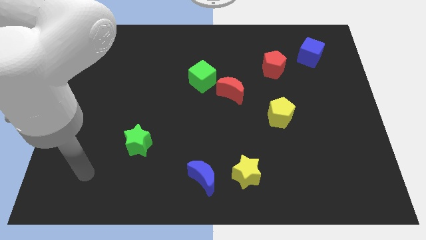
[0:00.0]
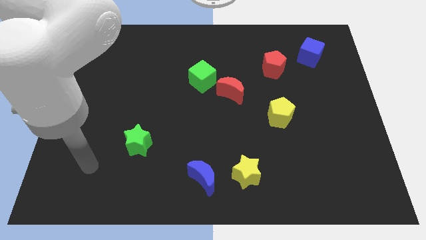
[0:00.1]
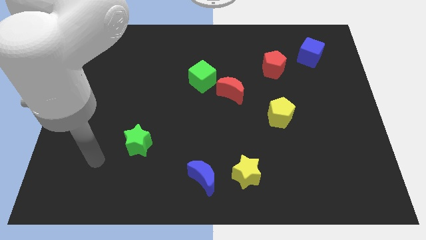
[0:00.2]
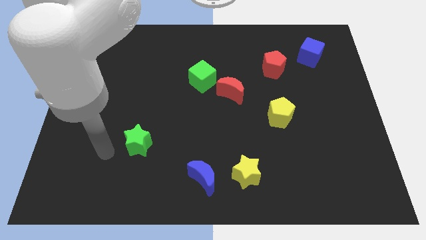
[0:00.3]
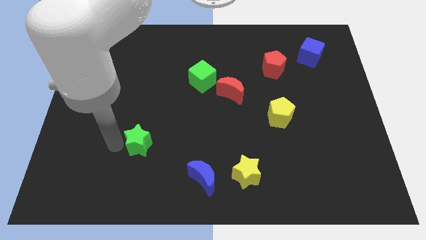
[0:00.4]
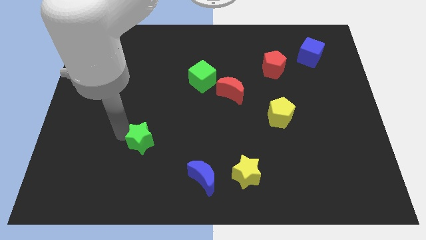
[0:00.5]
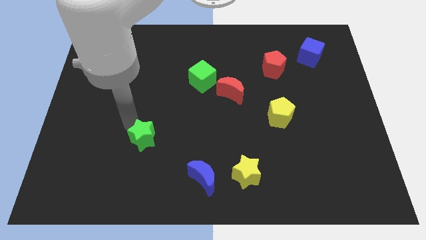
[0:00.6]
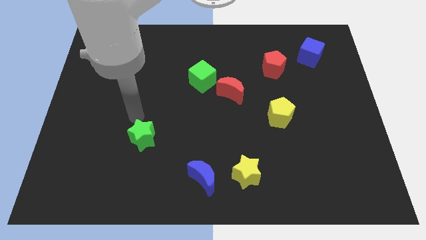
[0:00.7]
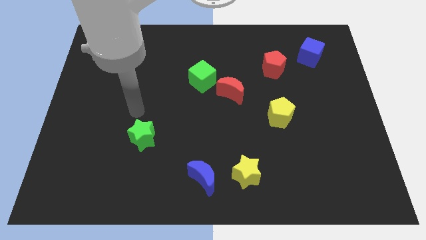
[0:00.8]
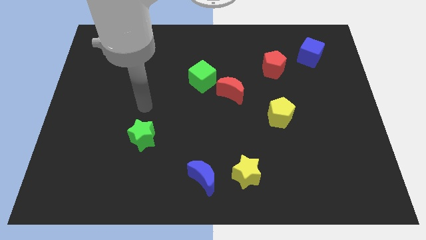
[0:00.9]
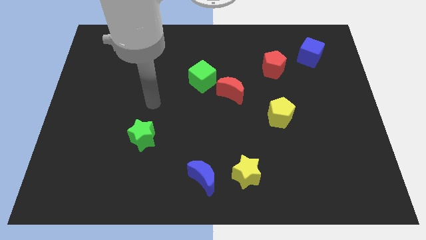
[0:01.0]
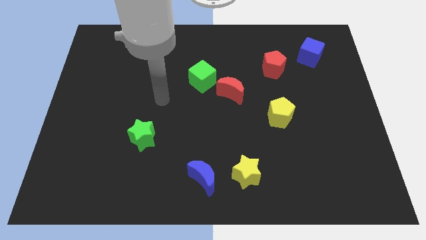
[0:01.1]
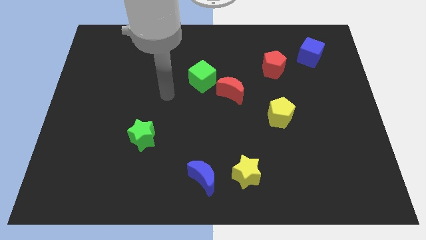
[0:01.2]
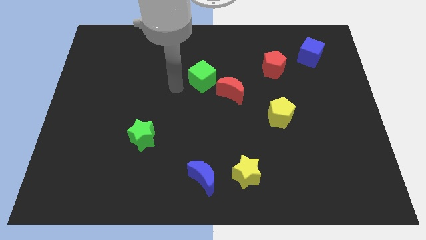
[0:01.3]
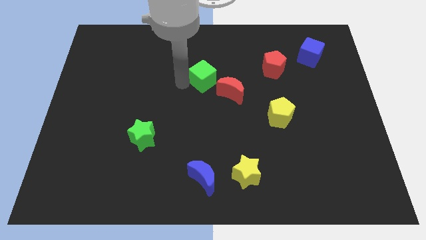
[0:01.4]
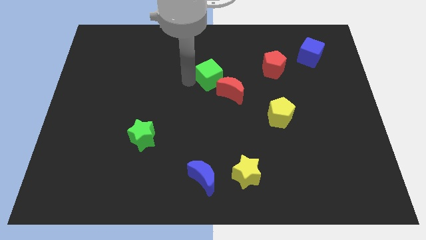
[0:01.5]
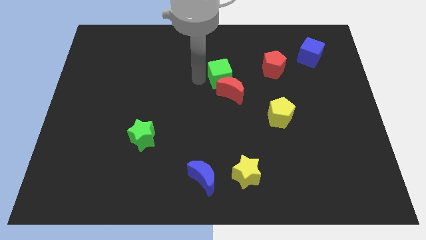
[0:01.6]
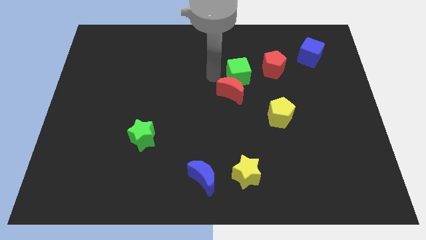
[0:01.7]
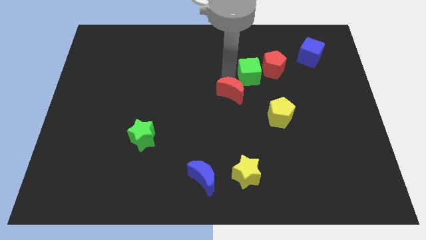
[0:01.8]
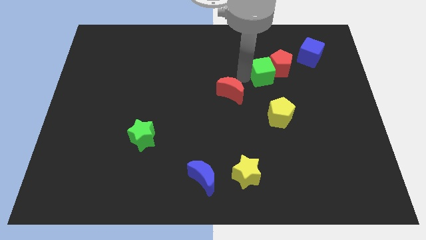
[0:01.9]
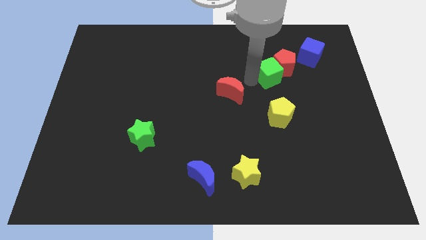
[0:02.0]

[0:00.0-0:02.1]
move the red moon away from the green cube

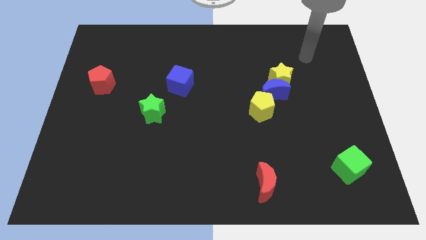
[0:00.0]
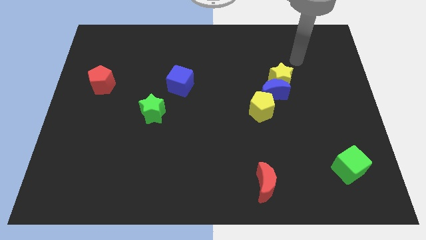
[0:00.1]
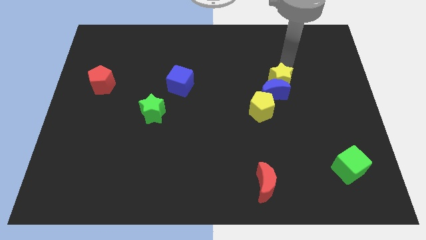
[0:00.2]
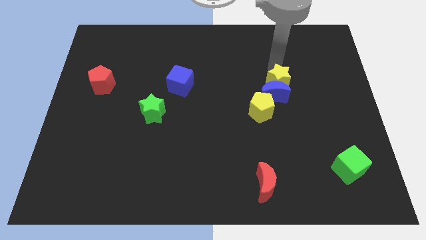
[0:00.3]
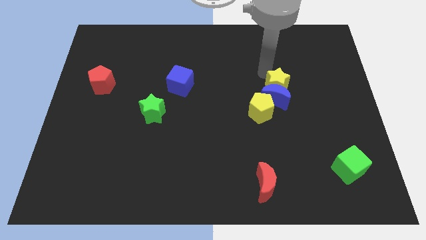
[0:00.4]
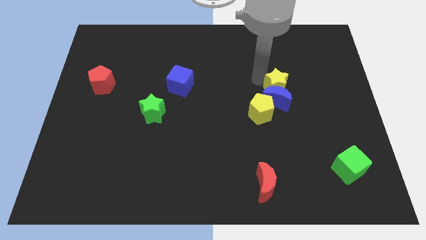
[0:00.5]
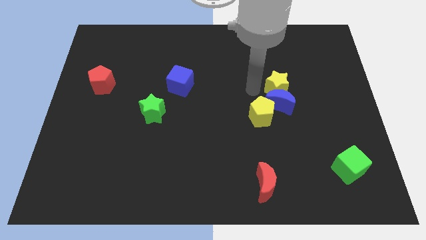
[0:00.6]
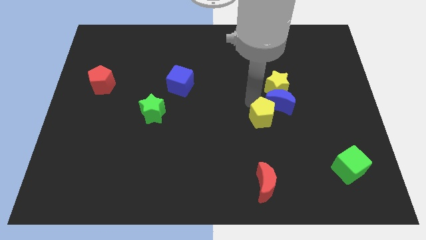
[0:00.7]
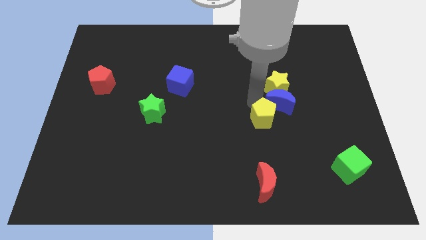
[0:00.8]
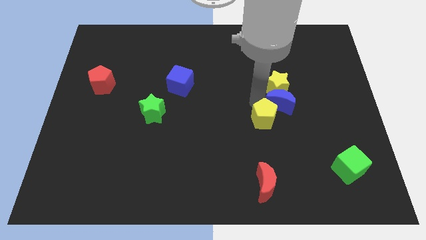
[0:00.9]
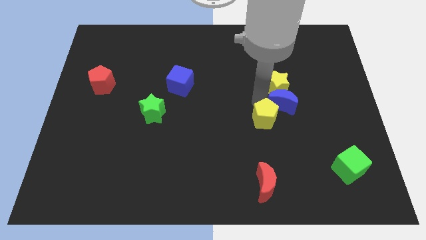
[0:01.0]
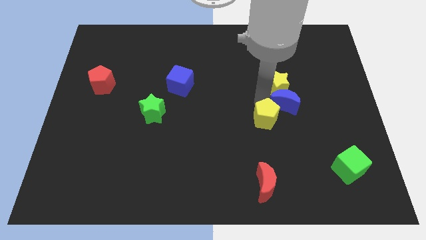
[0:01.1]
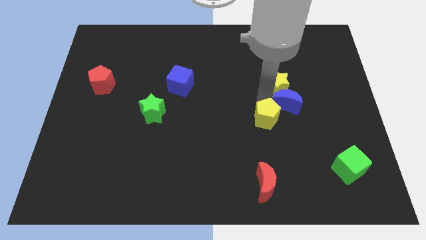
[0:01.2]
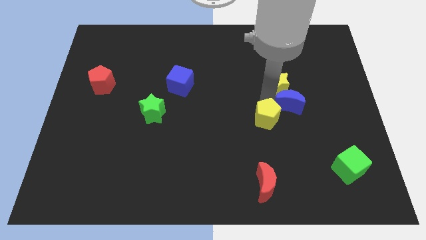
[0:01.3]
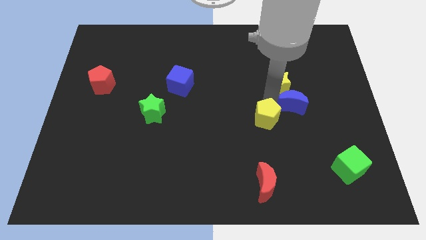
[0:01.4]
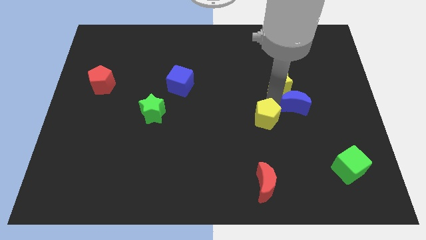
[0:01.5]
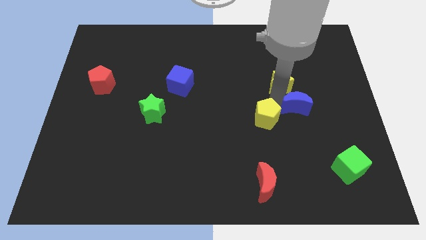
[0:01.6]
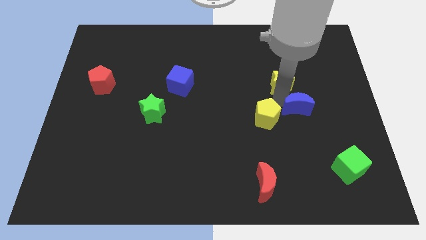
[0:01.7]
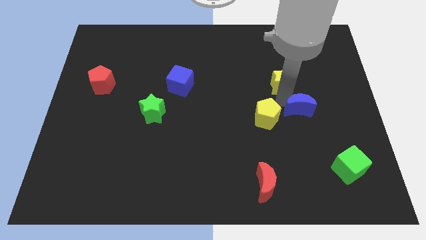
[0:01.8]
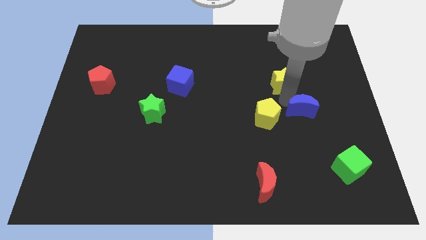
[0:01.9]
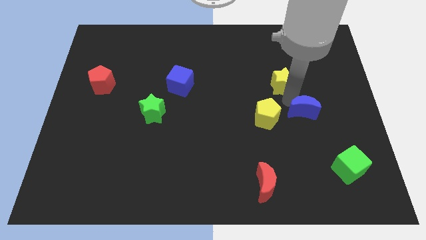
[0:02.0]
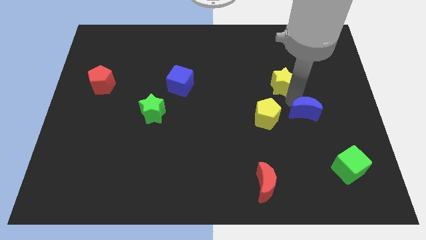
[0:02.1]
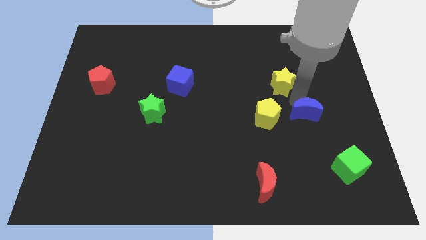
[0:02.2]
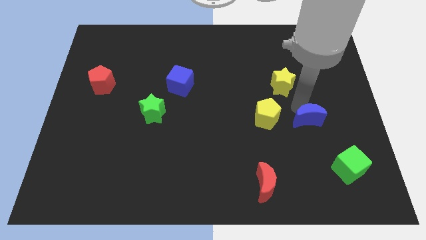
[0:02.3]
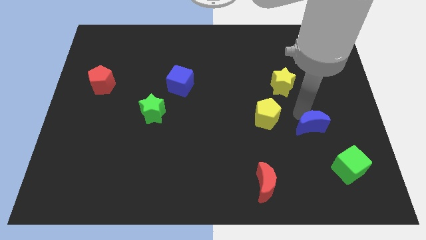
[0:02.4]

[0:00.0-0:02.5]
pull the blue moon apart from the yellow star and yellow pentagon

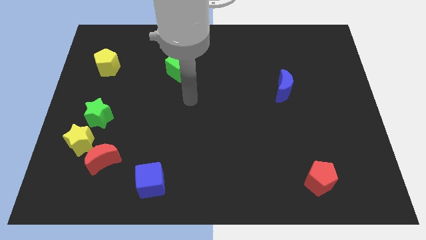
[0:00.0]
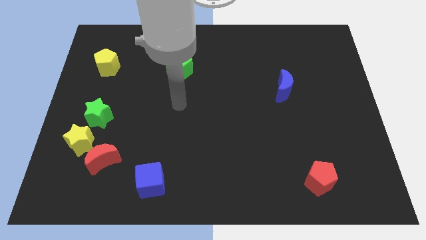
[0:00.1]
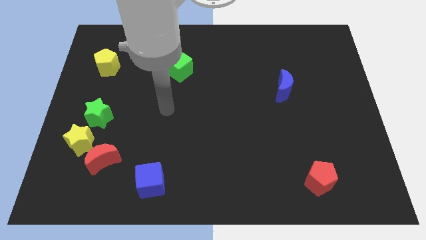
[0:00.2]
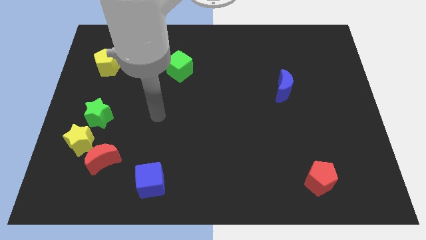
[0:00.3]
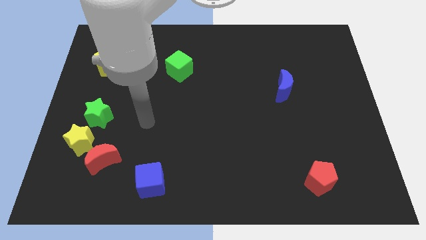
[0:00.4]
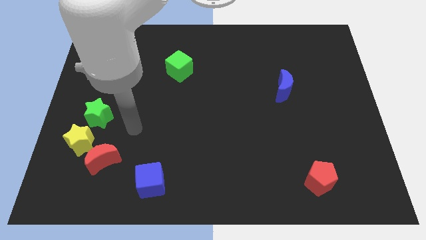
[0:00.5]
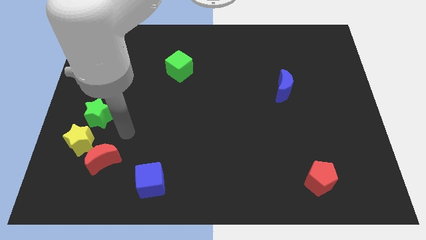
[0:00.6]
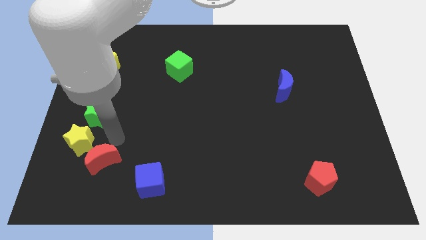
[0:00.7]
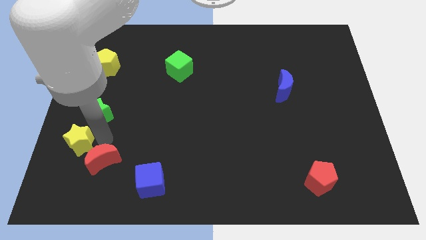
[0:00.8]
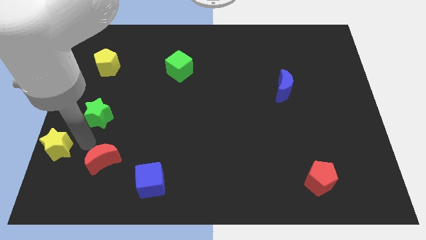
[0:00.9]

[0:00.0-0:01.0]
separate the red moon from the yellow star

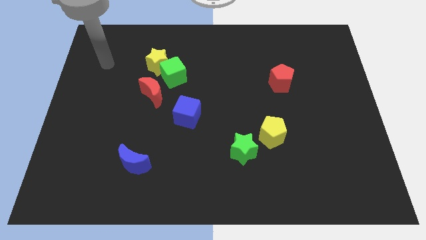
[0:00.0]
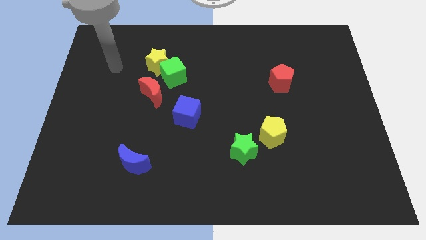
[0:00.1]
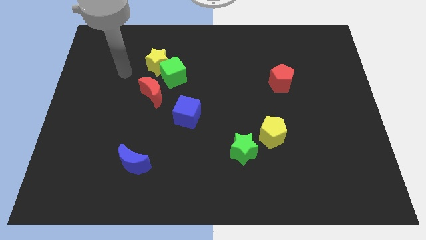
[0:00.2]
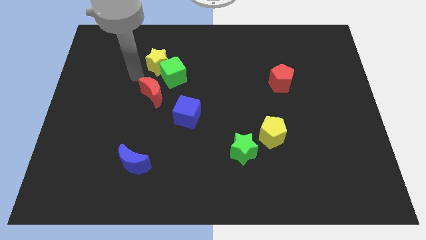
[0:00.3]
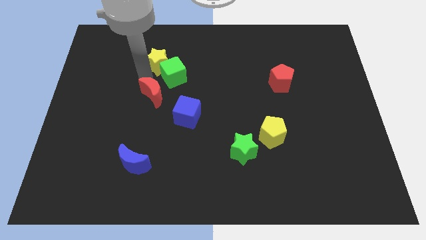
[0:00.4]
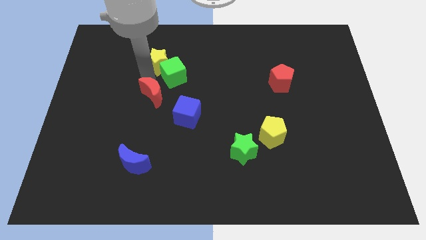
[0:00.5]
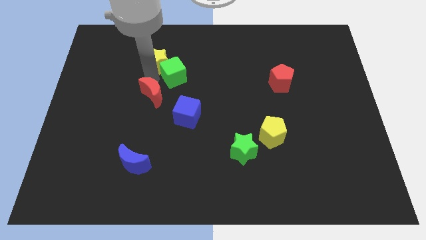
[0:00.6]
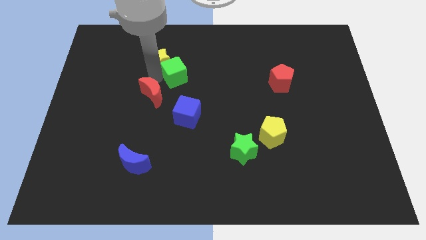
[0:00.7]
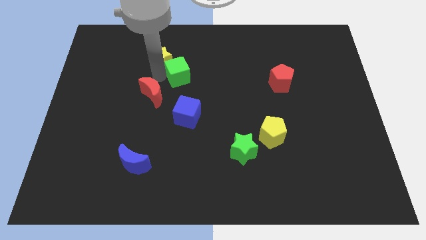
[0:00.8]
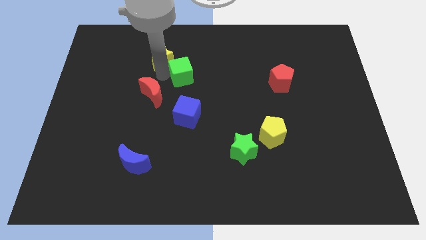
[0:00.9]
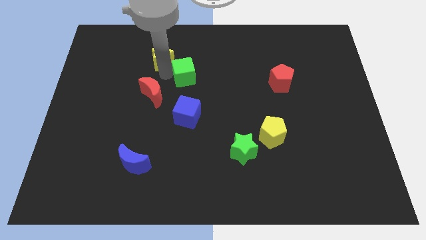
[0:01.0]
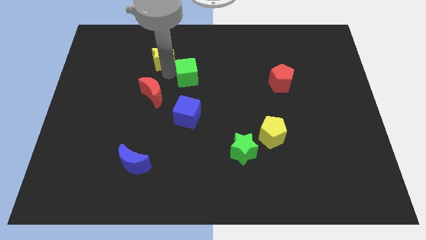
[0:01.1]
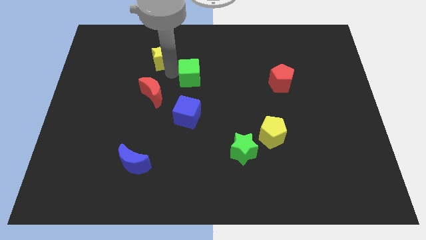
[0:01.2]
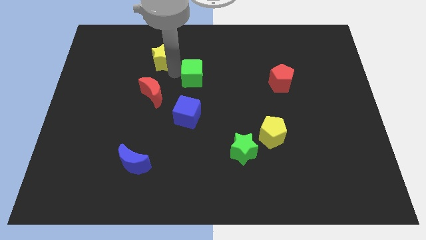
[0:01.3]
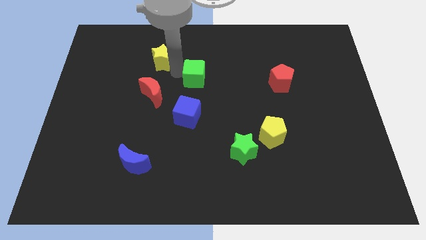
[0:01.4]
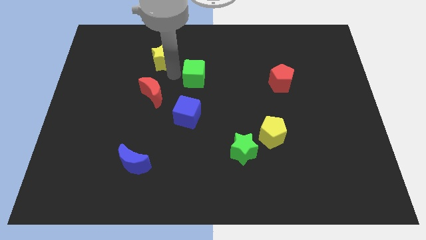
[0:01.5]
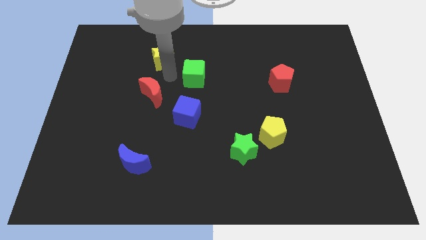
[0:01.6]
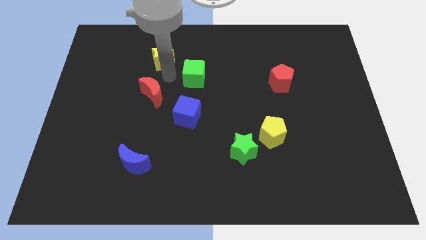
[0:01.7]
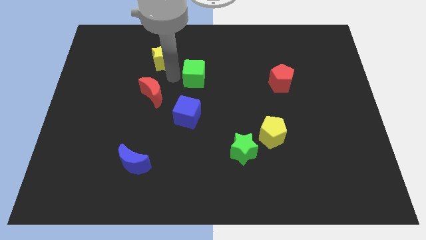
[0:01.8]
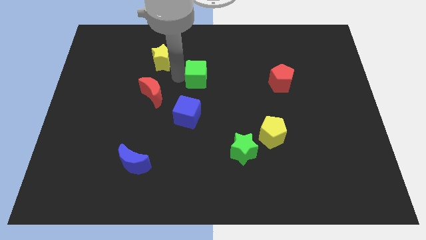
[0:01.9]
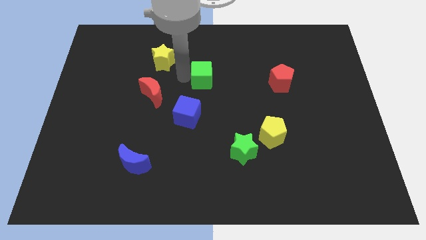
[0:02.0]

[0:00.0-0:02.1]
separate the green cube from the yellow star and red moon

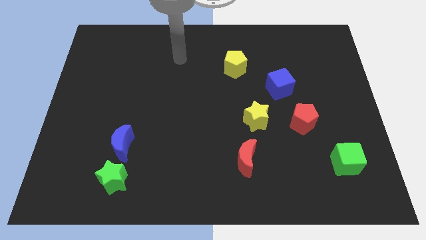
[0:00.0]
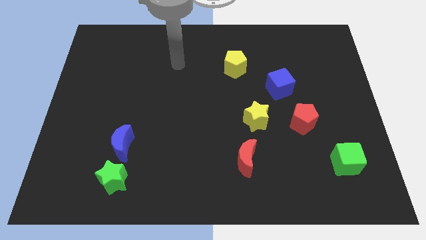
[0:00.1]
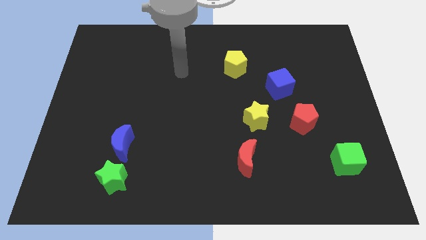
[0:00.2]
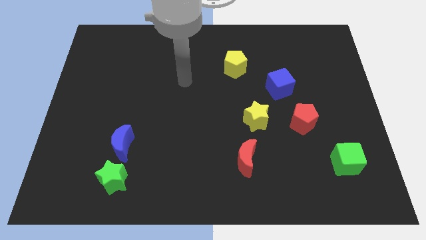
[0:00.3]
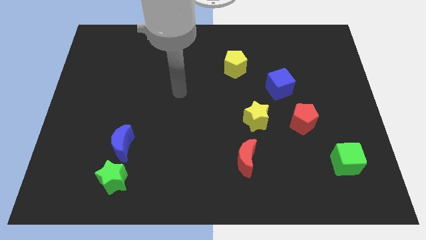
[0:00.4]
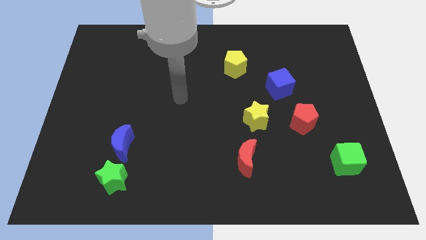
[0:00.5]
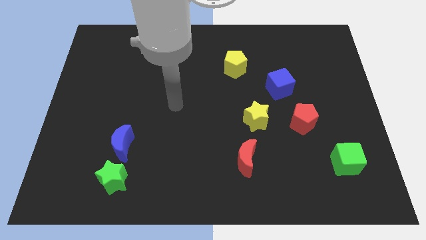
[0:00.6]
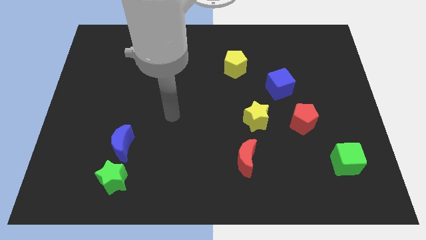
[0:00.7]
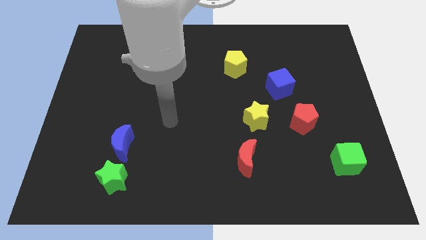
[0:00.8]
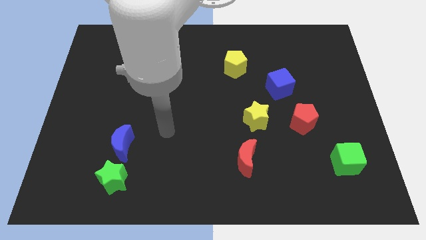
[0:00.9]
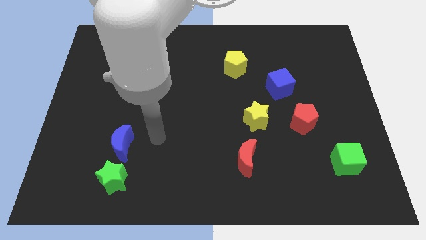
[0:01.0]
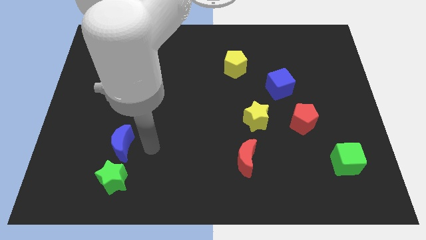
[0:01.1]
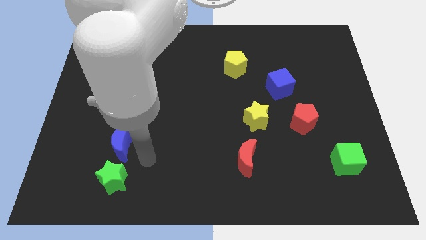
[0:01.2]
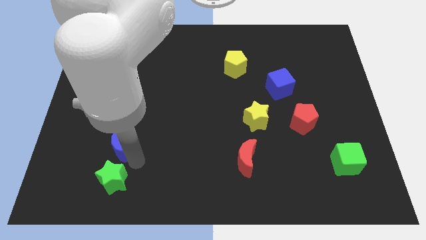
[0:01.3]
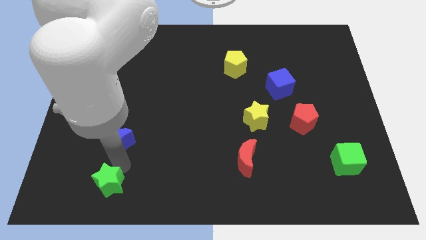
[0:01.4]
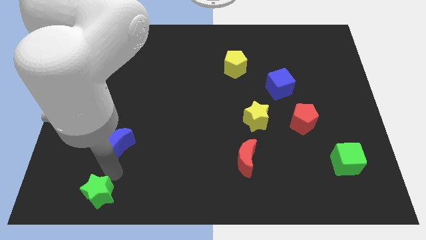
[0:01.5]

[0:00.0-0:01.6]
move the blue moon away from the green star
